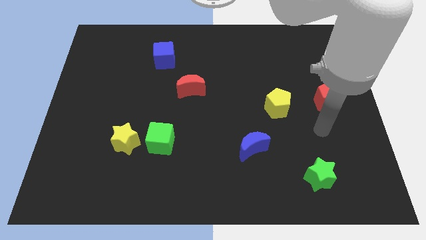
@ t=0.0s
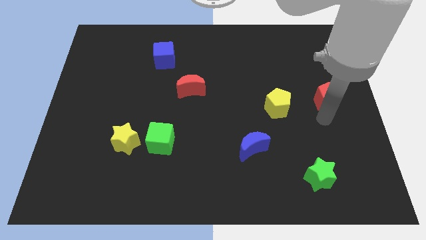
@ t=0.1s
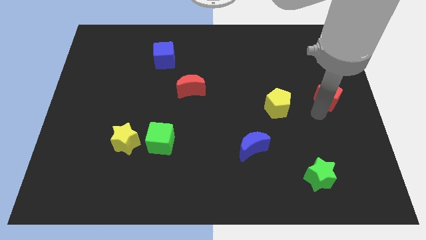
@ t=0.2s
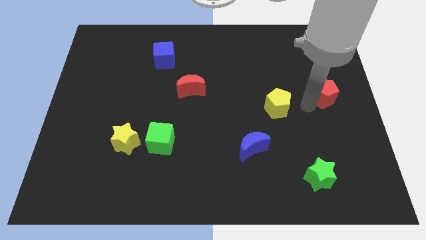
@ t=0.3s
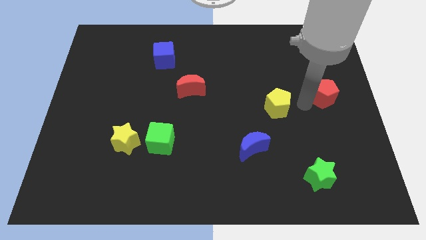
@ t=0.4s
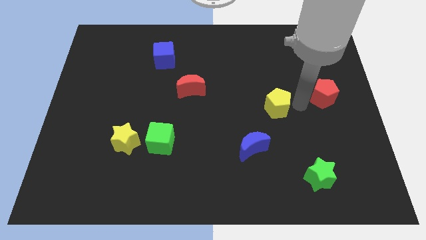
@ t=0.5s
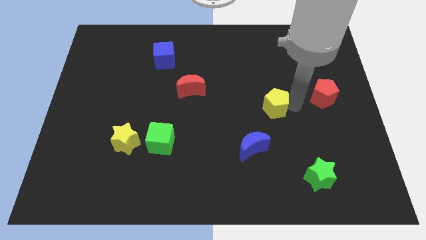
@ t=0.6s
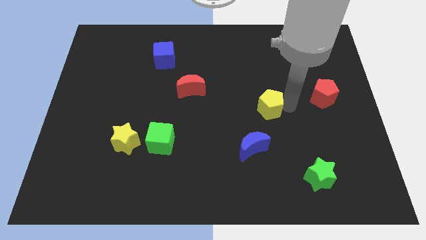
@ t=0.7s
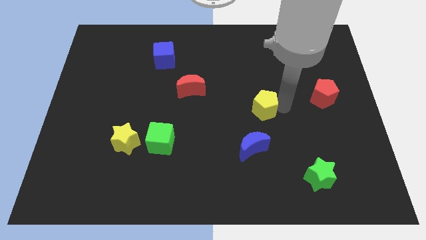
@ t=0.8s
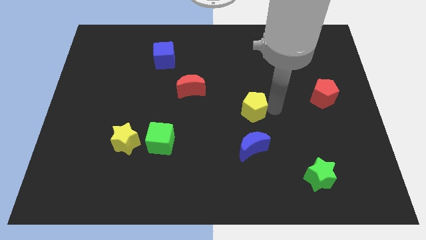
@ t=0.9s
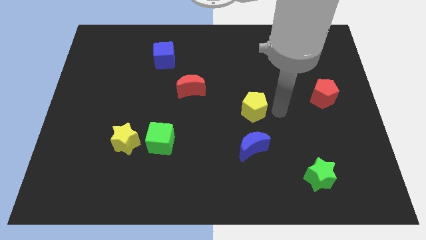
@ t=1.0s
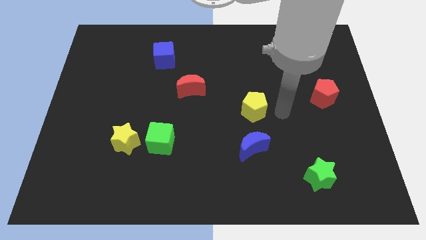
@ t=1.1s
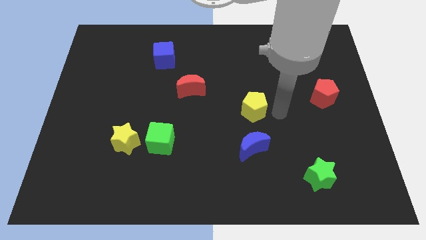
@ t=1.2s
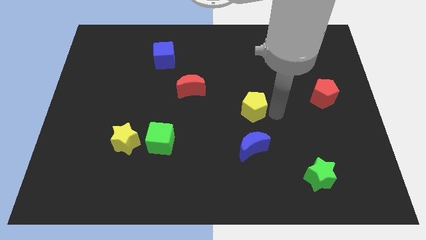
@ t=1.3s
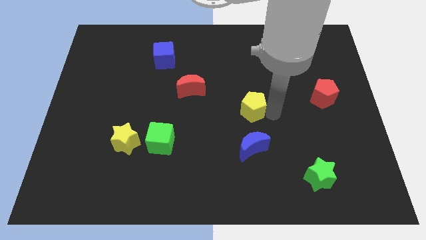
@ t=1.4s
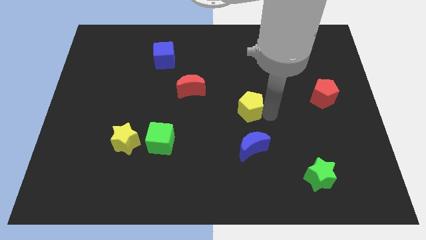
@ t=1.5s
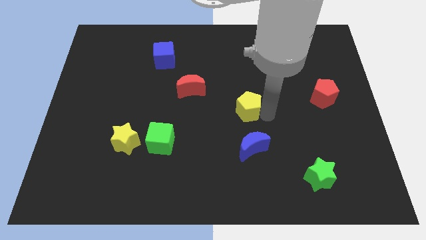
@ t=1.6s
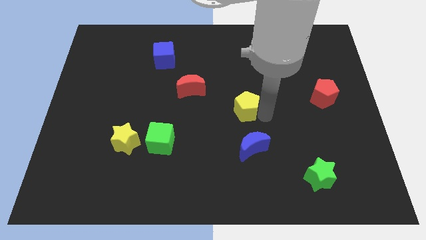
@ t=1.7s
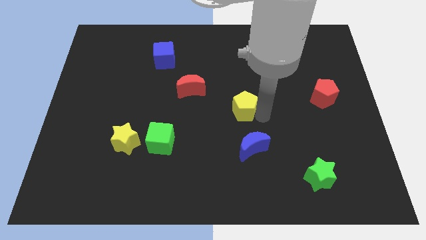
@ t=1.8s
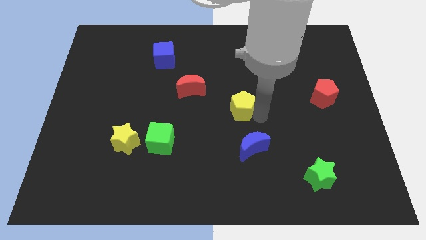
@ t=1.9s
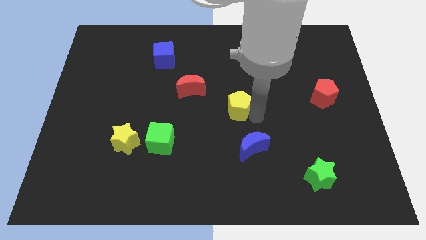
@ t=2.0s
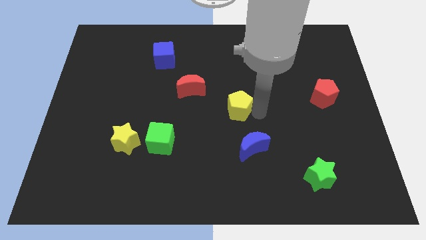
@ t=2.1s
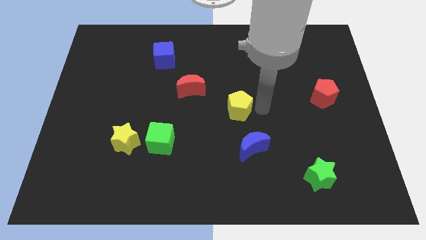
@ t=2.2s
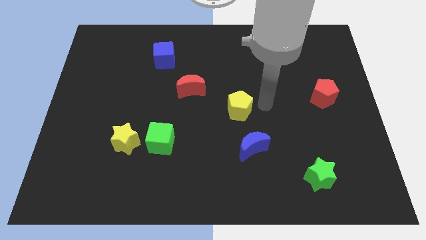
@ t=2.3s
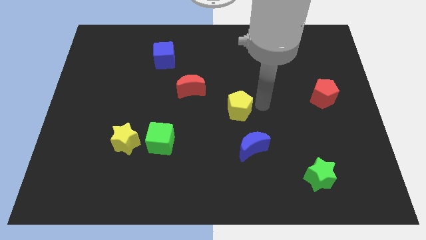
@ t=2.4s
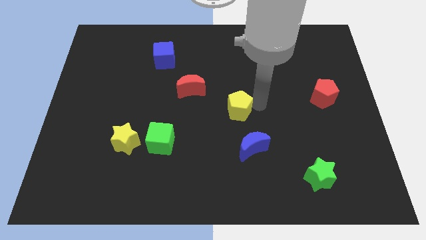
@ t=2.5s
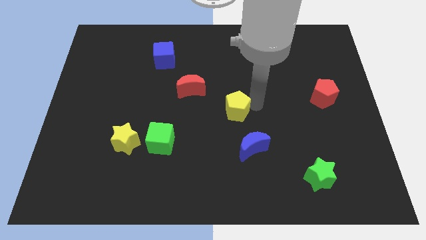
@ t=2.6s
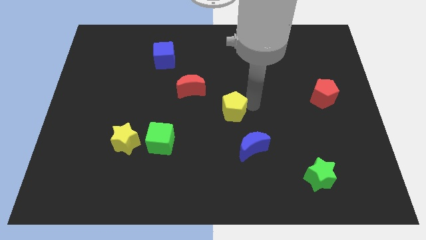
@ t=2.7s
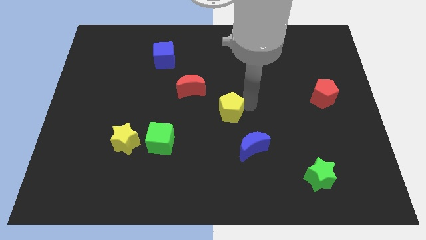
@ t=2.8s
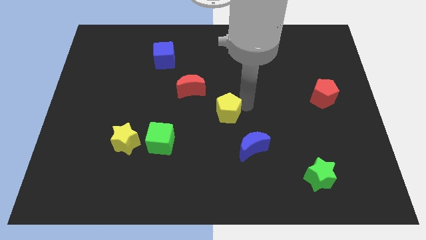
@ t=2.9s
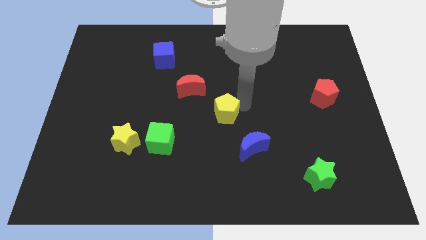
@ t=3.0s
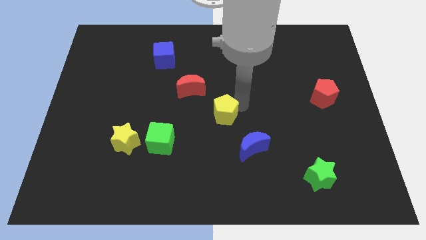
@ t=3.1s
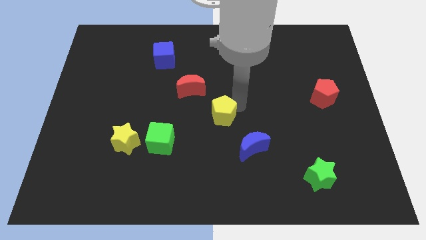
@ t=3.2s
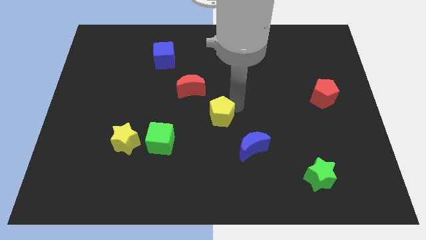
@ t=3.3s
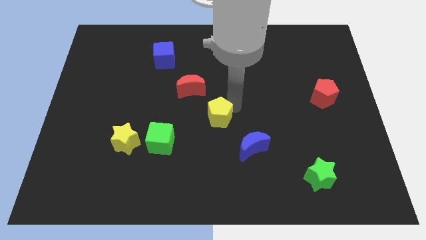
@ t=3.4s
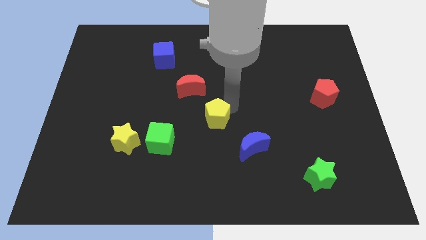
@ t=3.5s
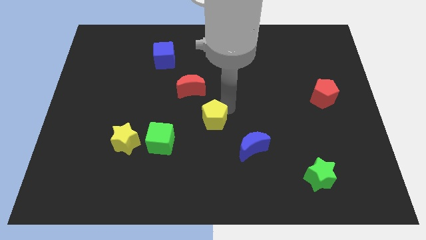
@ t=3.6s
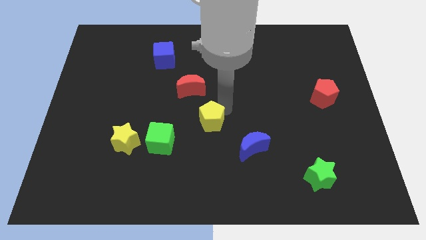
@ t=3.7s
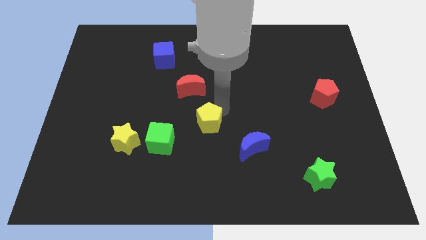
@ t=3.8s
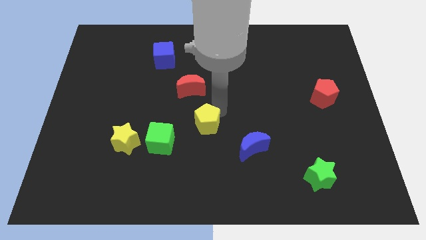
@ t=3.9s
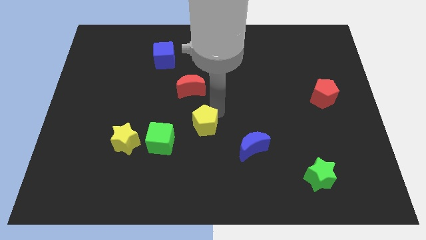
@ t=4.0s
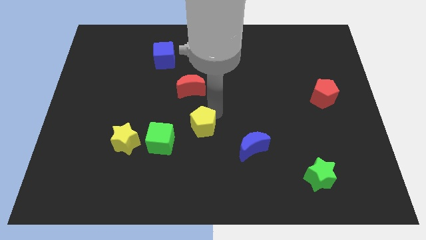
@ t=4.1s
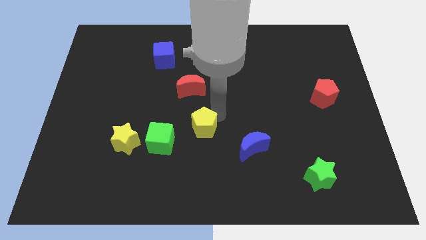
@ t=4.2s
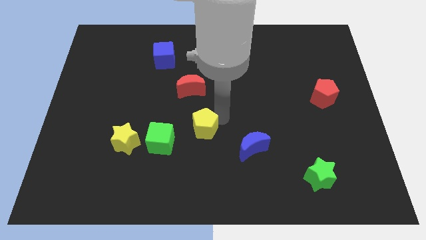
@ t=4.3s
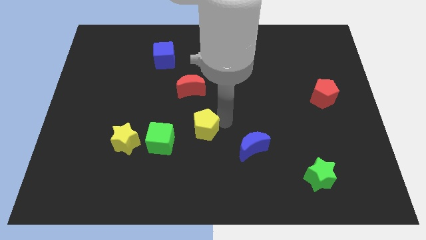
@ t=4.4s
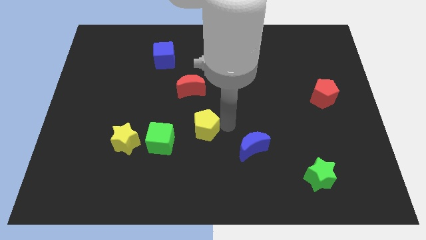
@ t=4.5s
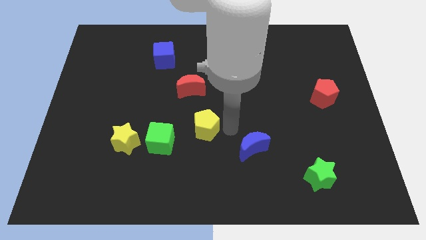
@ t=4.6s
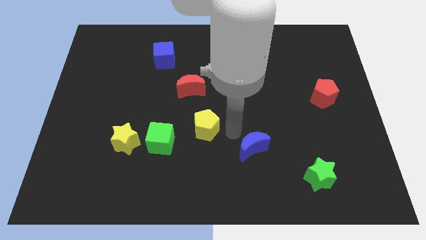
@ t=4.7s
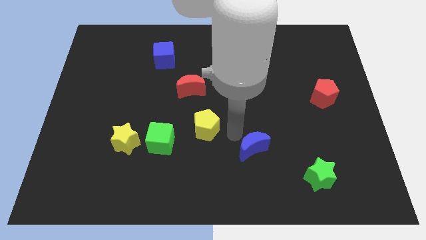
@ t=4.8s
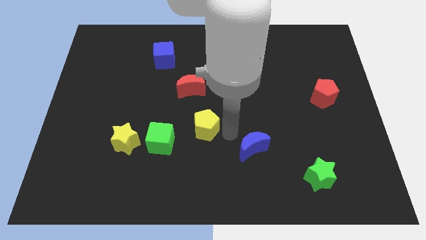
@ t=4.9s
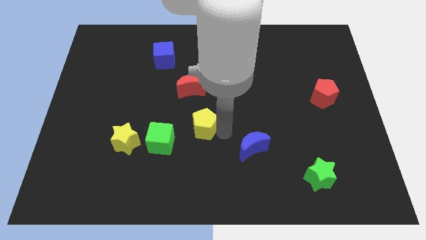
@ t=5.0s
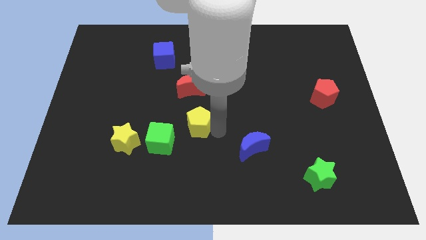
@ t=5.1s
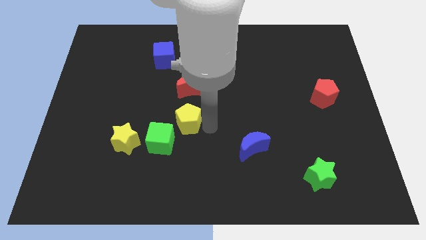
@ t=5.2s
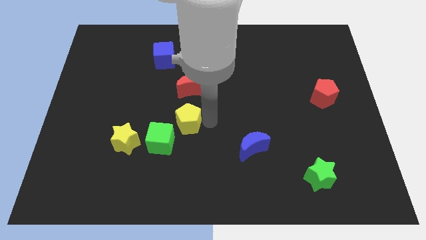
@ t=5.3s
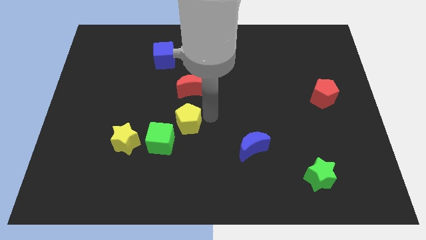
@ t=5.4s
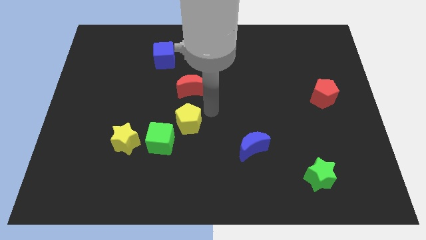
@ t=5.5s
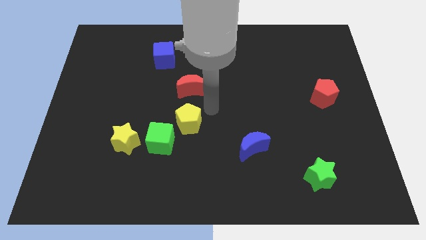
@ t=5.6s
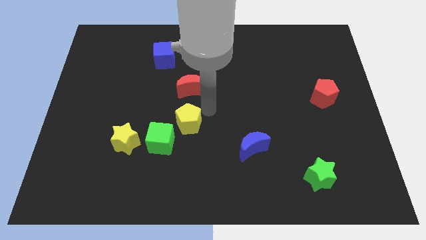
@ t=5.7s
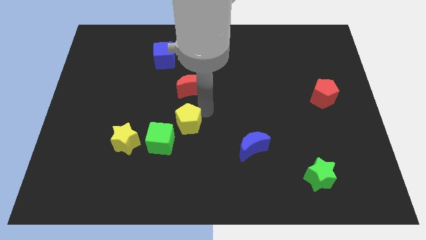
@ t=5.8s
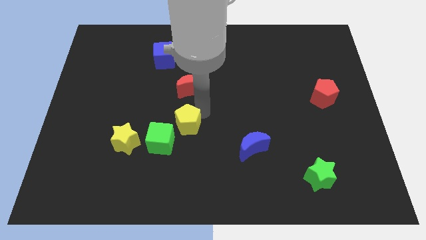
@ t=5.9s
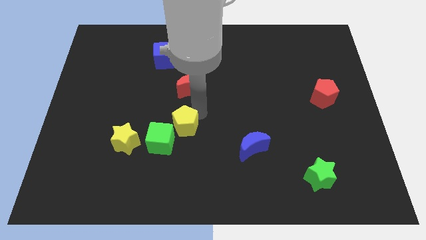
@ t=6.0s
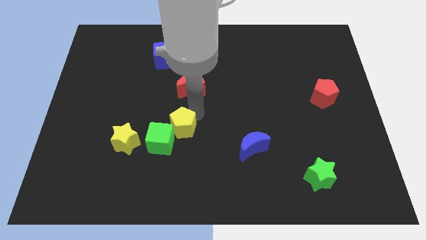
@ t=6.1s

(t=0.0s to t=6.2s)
move the yellow pentagon towards the green cube
